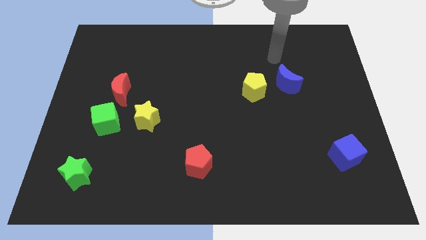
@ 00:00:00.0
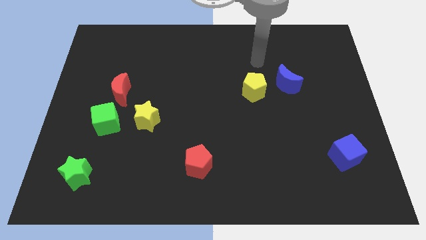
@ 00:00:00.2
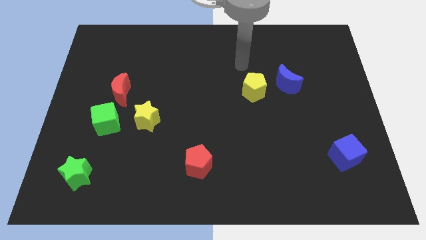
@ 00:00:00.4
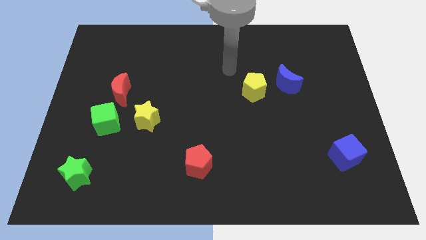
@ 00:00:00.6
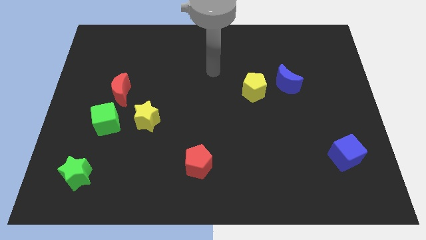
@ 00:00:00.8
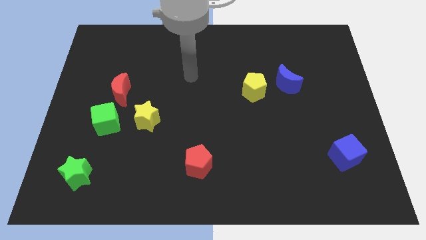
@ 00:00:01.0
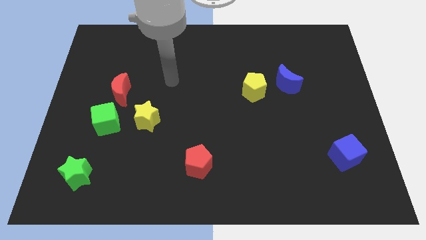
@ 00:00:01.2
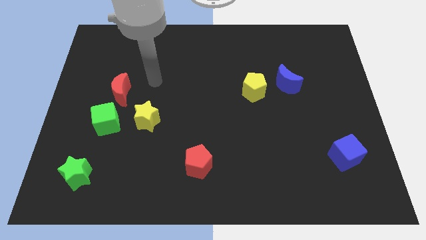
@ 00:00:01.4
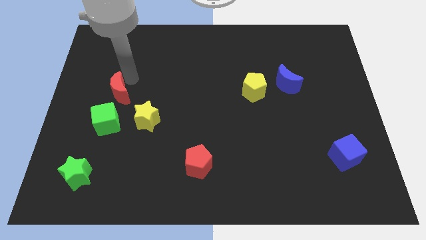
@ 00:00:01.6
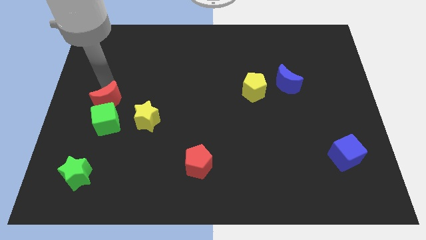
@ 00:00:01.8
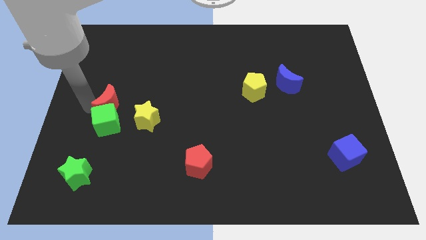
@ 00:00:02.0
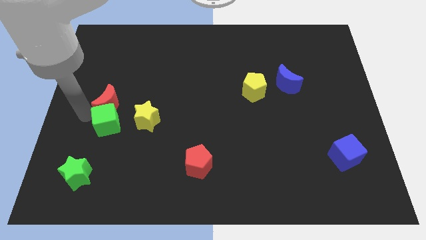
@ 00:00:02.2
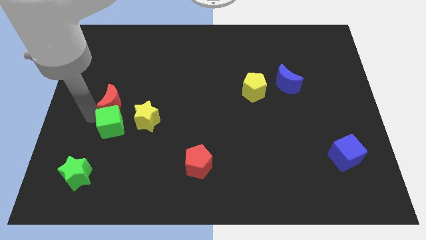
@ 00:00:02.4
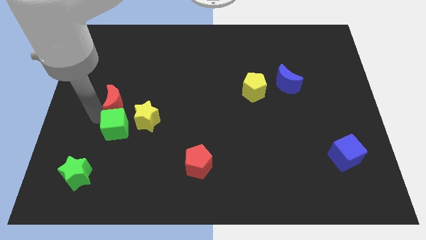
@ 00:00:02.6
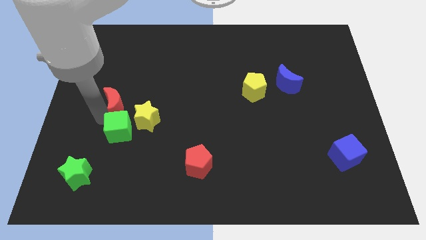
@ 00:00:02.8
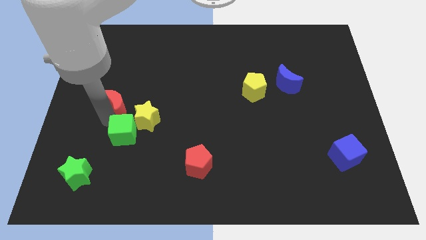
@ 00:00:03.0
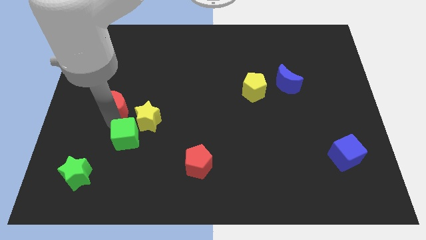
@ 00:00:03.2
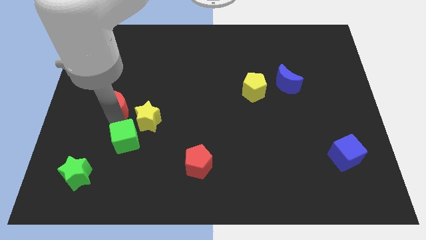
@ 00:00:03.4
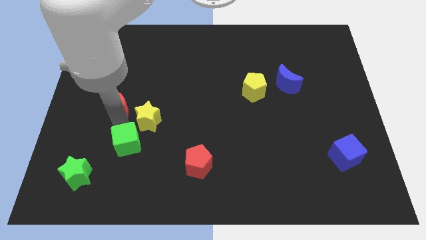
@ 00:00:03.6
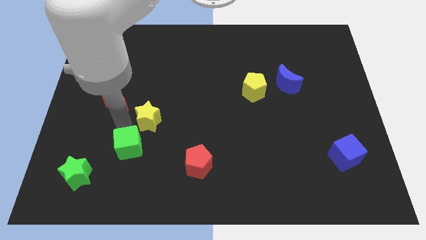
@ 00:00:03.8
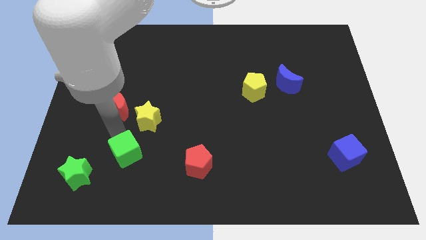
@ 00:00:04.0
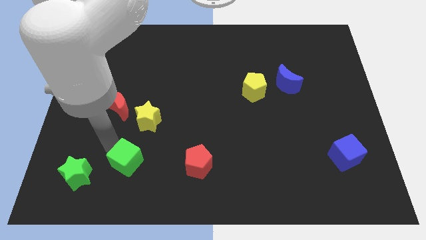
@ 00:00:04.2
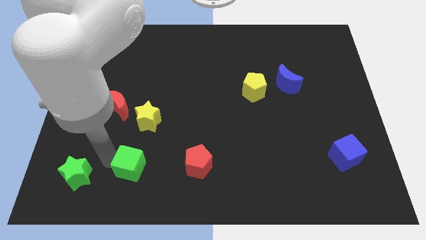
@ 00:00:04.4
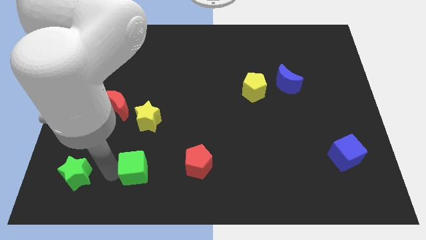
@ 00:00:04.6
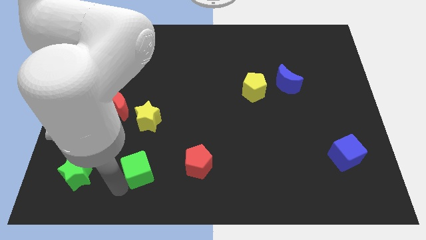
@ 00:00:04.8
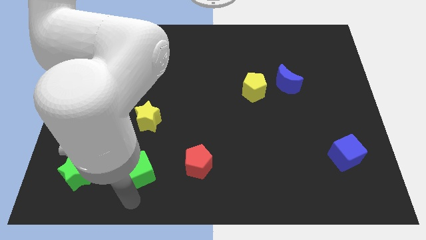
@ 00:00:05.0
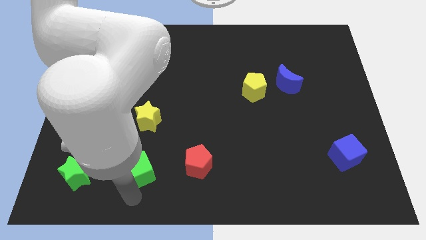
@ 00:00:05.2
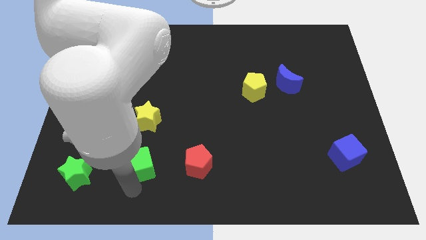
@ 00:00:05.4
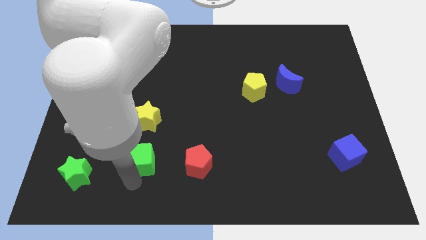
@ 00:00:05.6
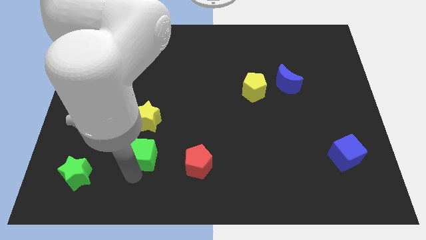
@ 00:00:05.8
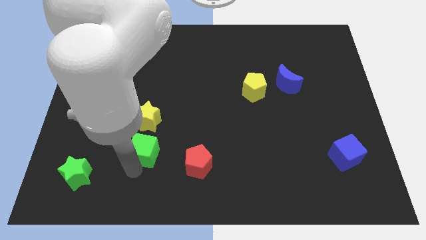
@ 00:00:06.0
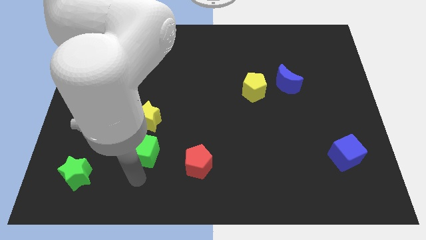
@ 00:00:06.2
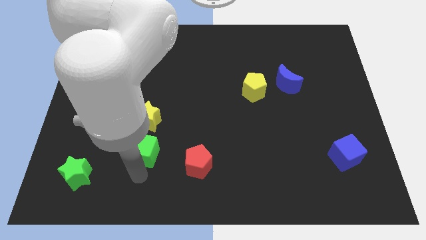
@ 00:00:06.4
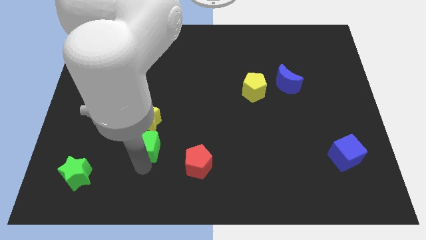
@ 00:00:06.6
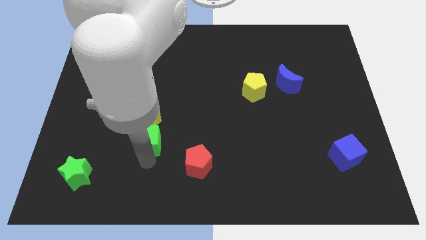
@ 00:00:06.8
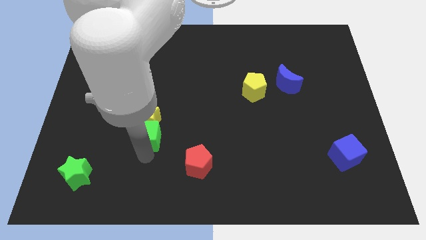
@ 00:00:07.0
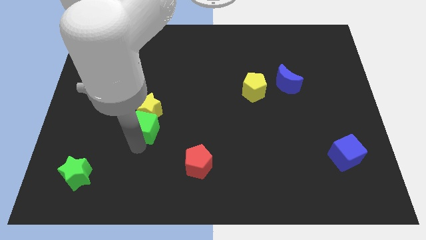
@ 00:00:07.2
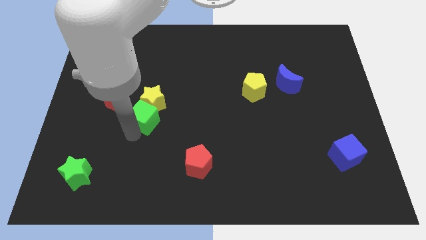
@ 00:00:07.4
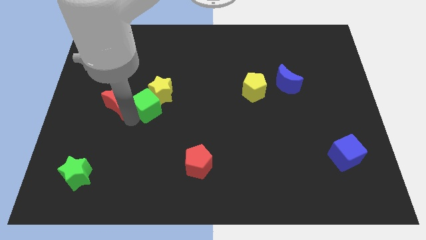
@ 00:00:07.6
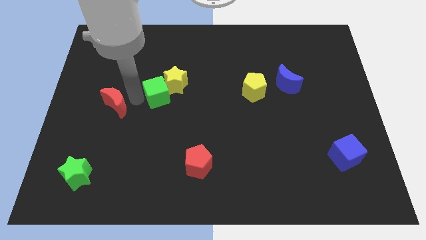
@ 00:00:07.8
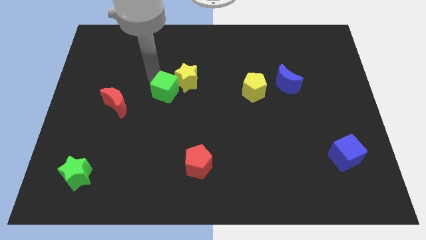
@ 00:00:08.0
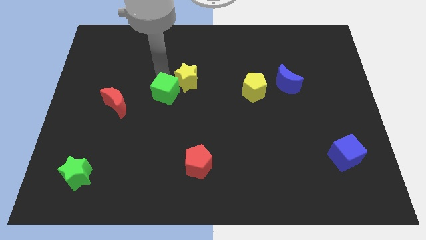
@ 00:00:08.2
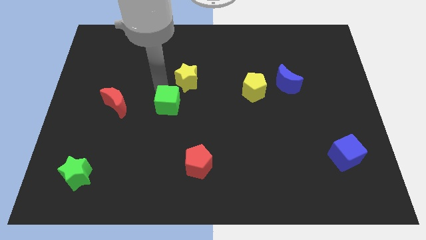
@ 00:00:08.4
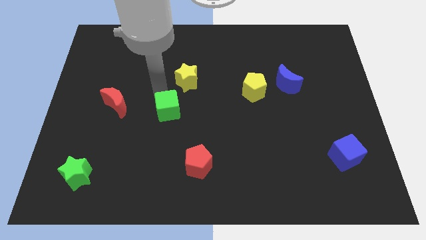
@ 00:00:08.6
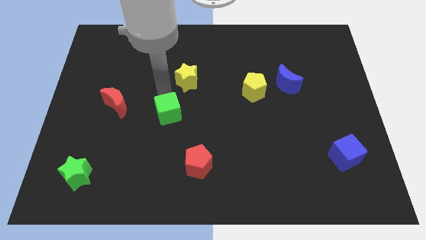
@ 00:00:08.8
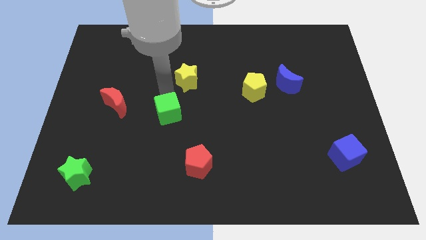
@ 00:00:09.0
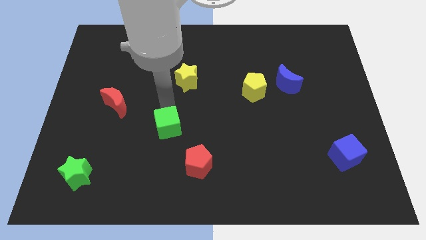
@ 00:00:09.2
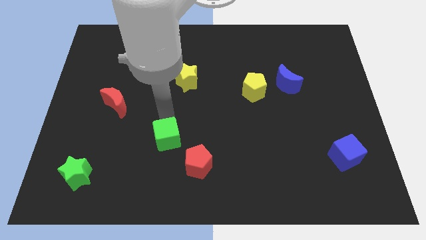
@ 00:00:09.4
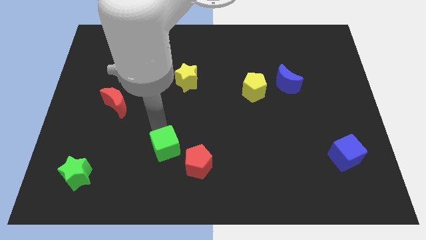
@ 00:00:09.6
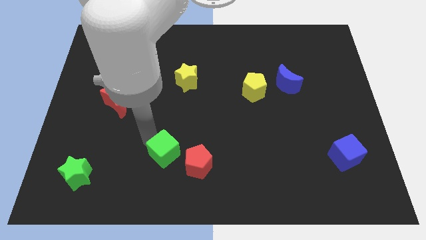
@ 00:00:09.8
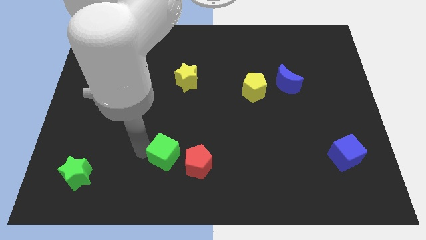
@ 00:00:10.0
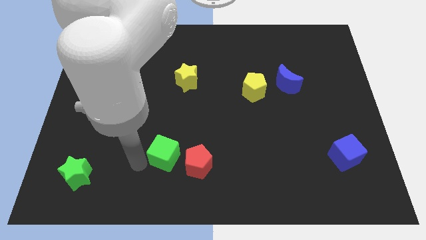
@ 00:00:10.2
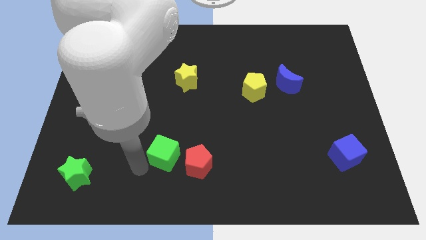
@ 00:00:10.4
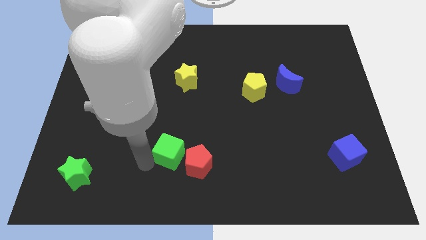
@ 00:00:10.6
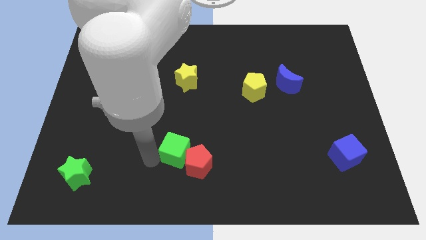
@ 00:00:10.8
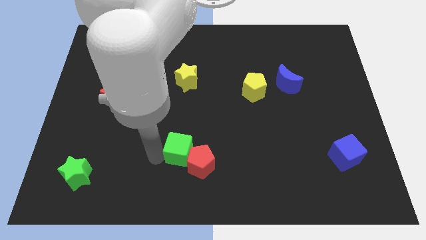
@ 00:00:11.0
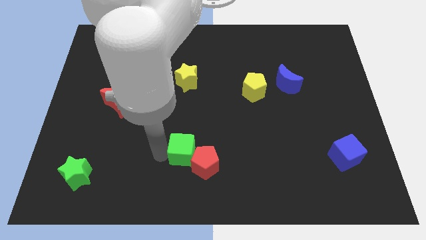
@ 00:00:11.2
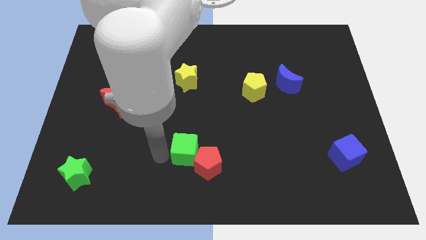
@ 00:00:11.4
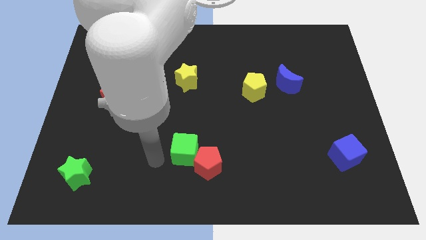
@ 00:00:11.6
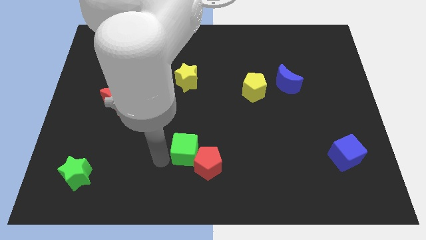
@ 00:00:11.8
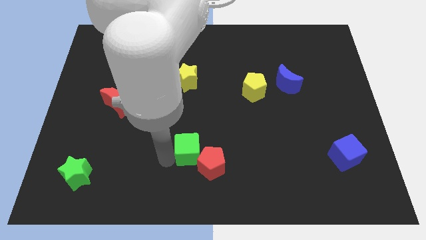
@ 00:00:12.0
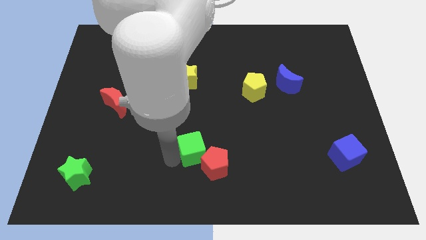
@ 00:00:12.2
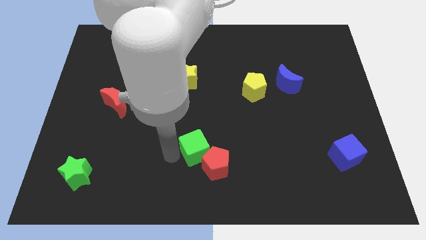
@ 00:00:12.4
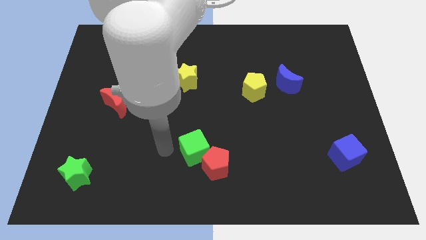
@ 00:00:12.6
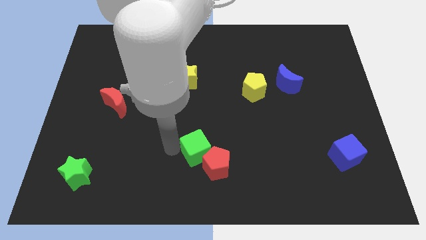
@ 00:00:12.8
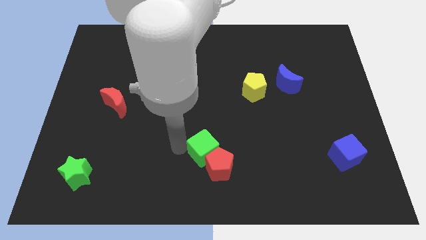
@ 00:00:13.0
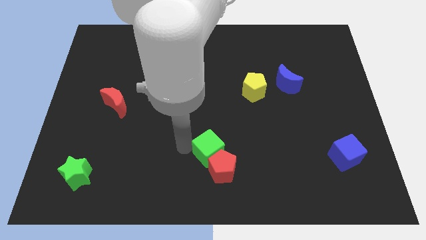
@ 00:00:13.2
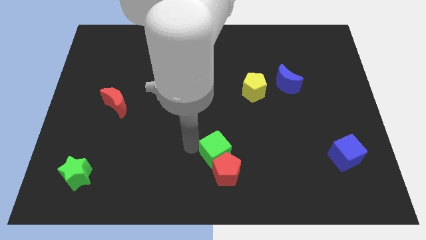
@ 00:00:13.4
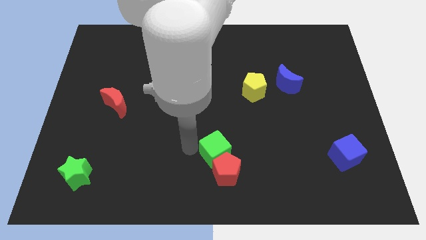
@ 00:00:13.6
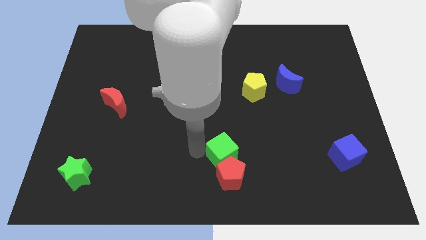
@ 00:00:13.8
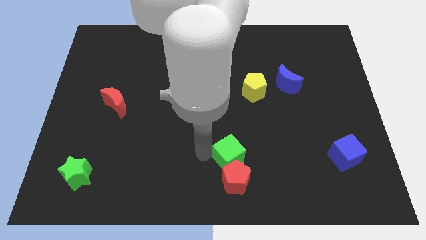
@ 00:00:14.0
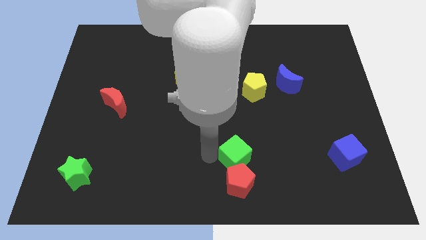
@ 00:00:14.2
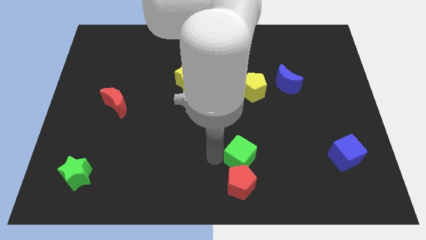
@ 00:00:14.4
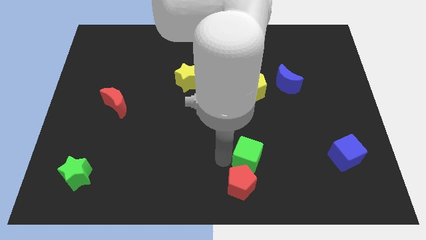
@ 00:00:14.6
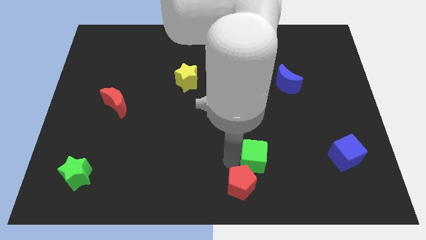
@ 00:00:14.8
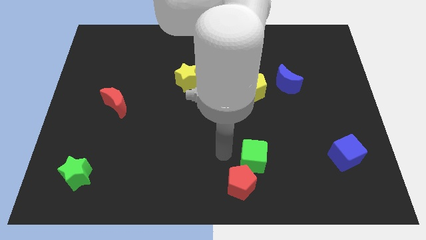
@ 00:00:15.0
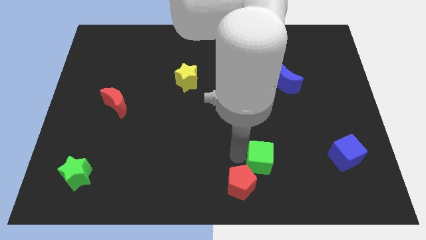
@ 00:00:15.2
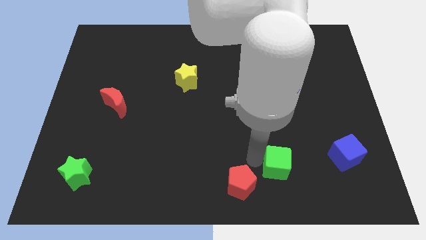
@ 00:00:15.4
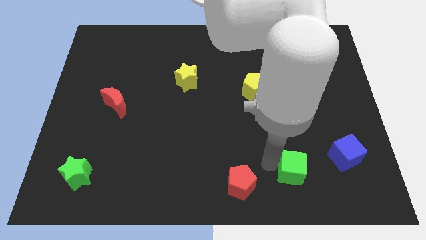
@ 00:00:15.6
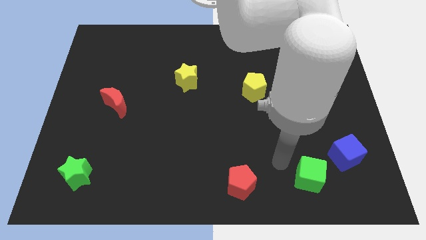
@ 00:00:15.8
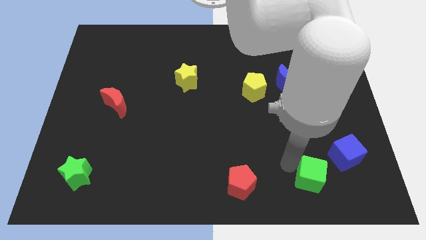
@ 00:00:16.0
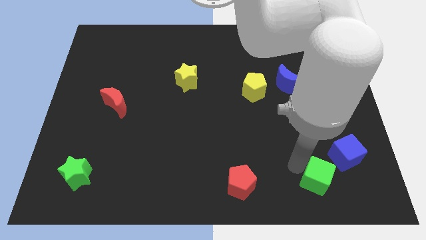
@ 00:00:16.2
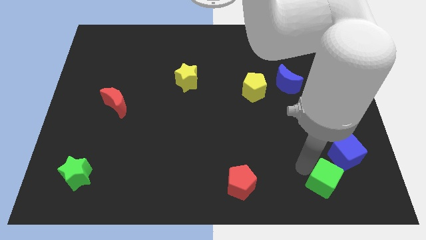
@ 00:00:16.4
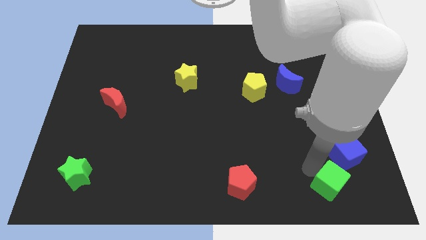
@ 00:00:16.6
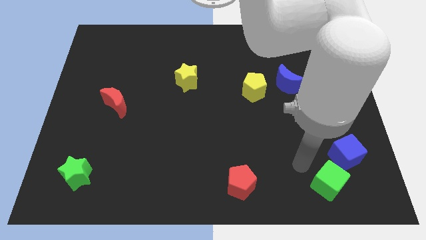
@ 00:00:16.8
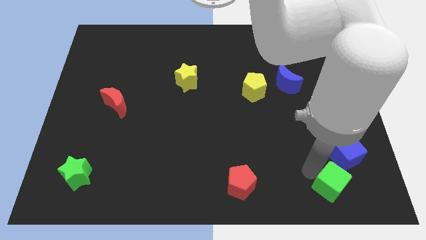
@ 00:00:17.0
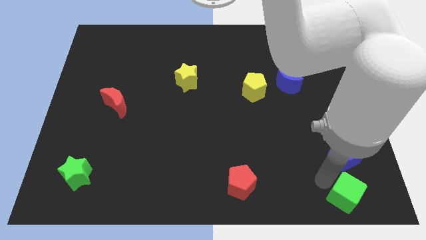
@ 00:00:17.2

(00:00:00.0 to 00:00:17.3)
move the green cube to the bottom right
